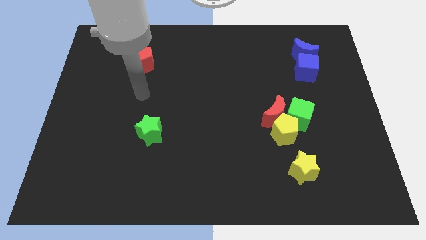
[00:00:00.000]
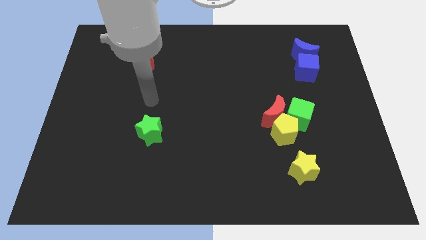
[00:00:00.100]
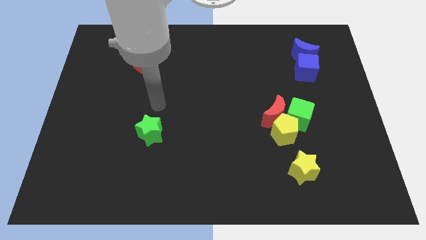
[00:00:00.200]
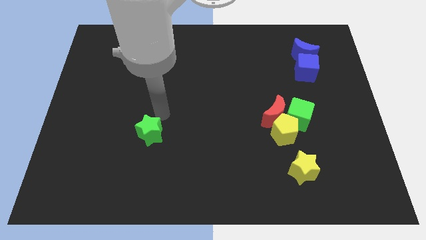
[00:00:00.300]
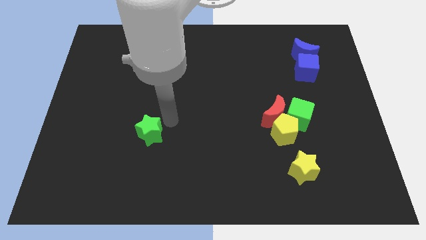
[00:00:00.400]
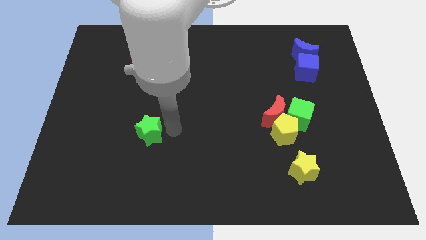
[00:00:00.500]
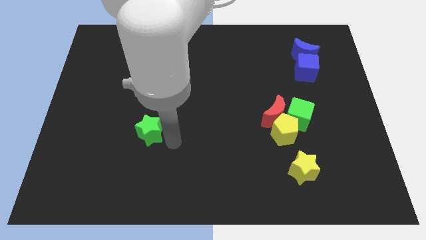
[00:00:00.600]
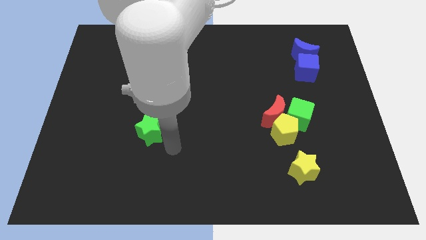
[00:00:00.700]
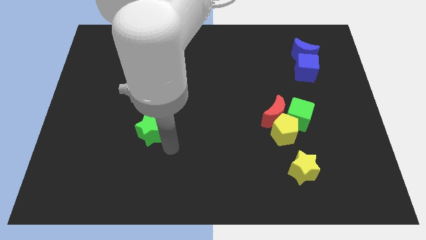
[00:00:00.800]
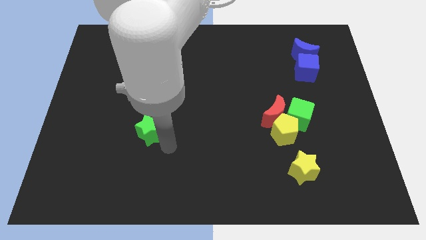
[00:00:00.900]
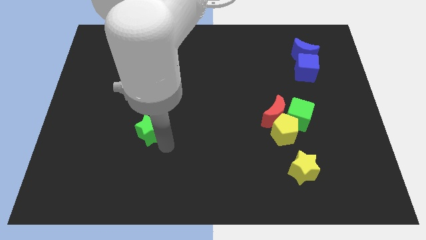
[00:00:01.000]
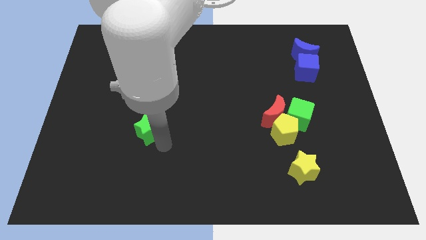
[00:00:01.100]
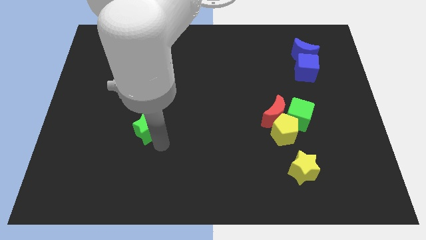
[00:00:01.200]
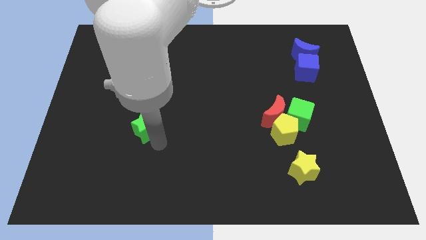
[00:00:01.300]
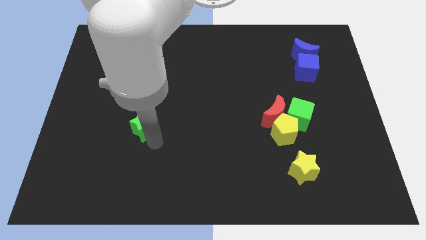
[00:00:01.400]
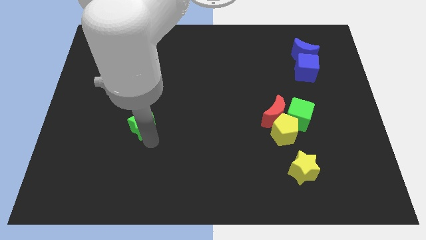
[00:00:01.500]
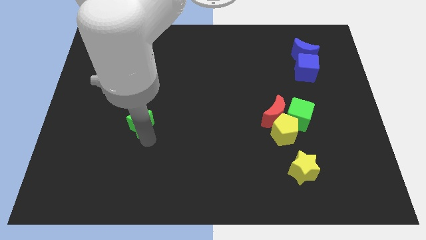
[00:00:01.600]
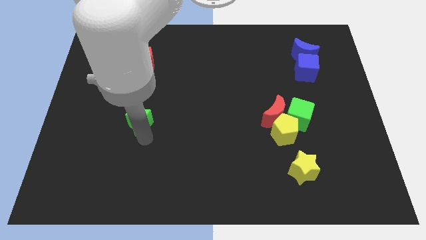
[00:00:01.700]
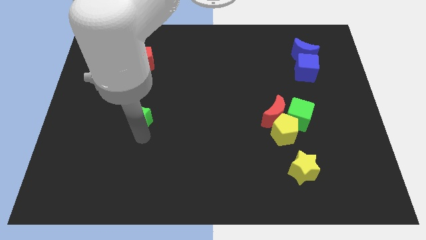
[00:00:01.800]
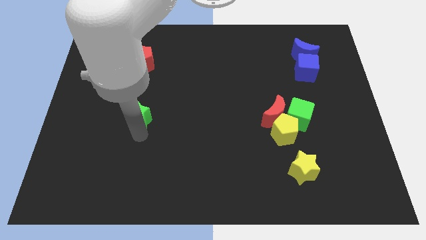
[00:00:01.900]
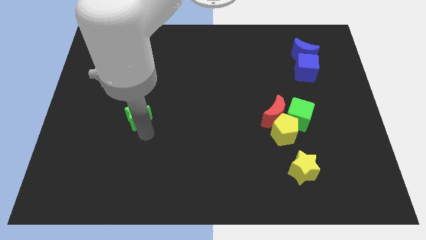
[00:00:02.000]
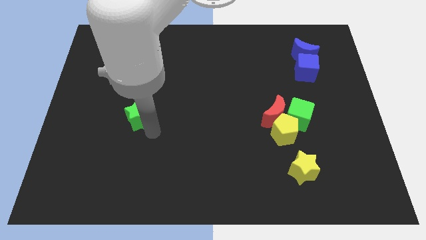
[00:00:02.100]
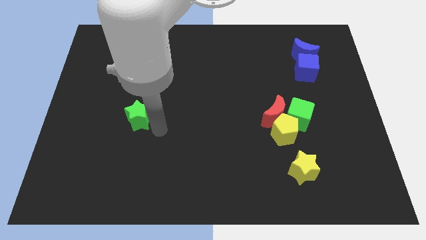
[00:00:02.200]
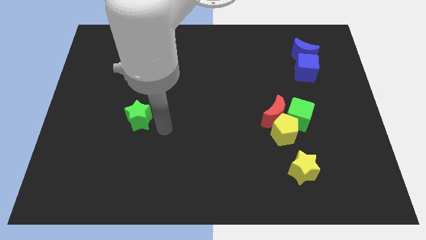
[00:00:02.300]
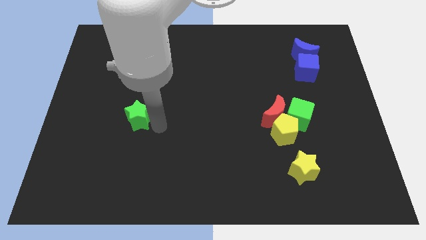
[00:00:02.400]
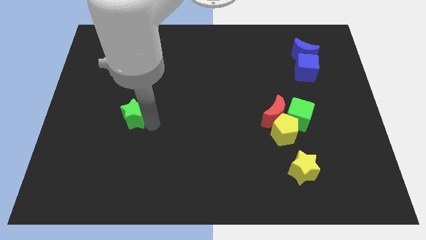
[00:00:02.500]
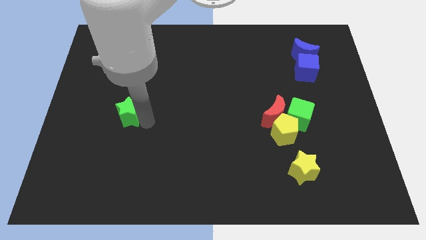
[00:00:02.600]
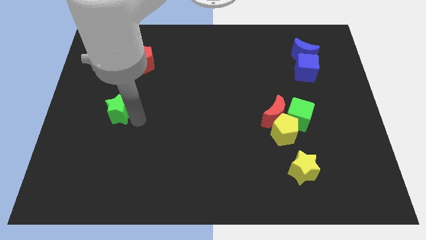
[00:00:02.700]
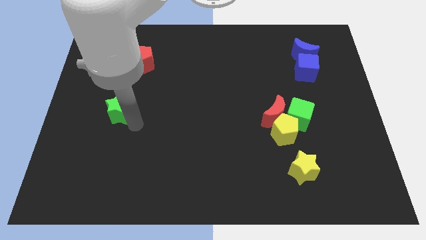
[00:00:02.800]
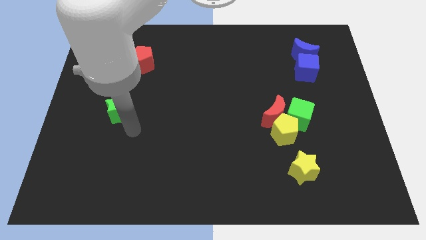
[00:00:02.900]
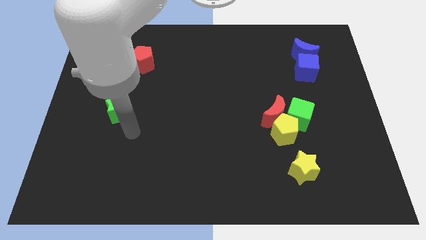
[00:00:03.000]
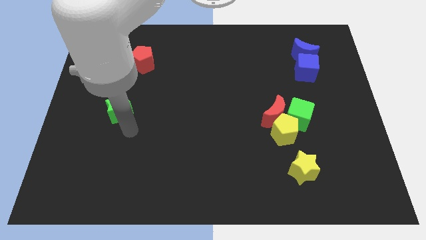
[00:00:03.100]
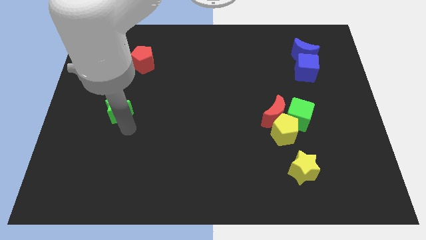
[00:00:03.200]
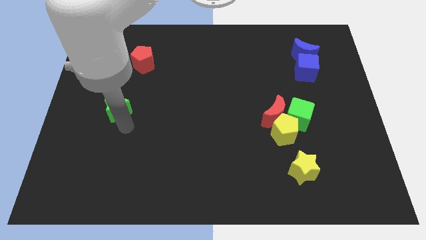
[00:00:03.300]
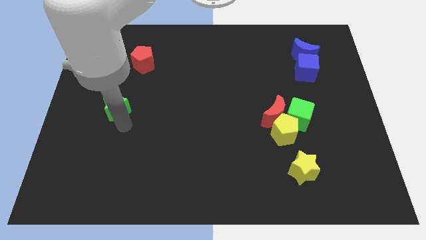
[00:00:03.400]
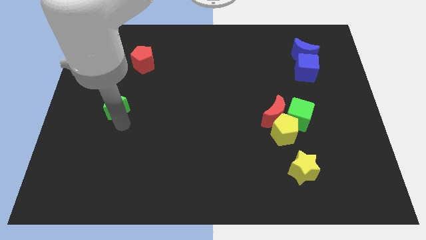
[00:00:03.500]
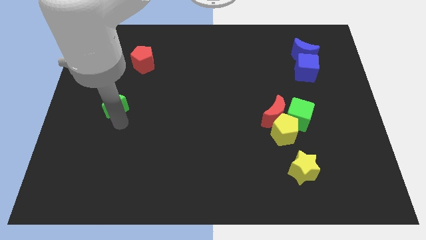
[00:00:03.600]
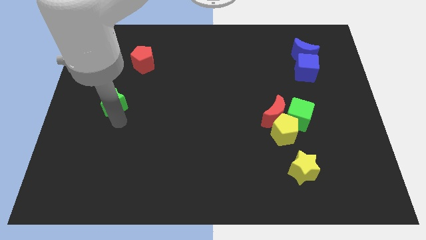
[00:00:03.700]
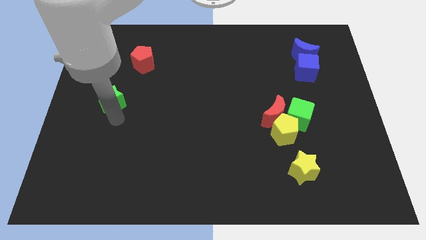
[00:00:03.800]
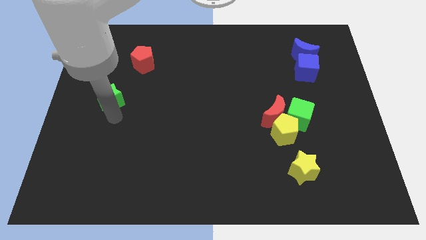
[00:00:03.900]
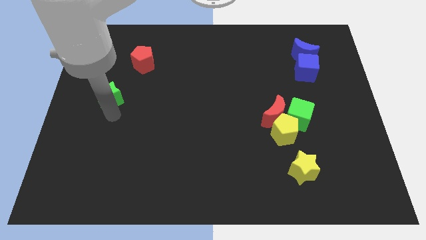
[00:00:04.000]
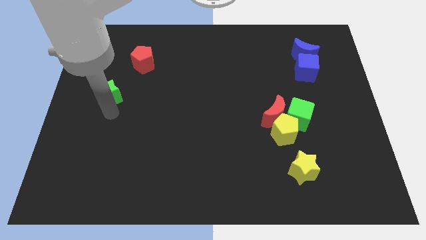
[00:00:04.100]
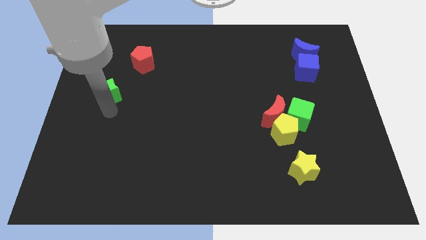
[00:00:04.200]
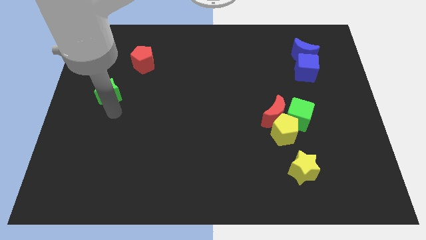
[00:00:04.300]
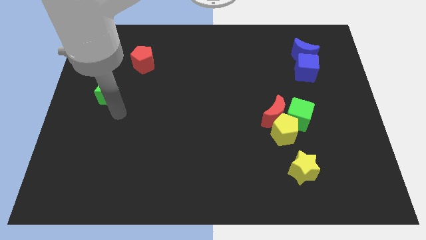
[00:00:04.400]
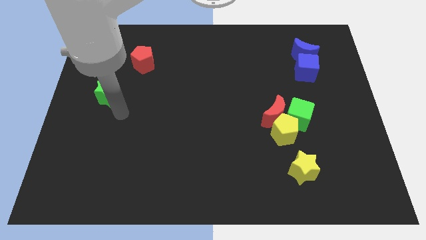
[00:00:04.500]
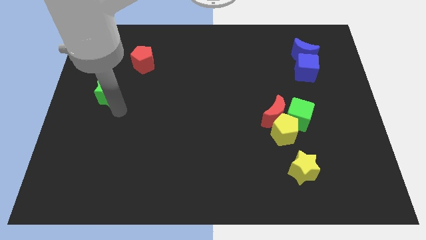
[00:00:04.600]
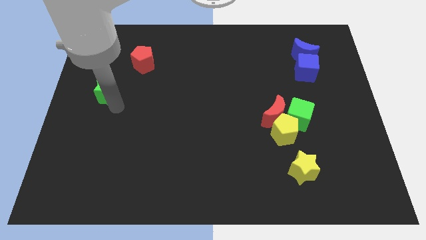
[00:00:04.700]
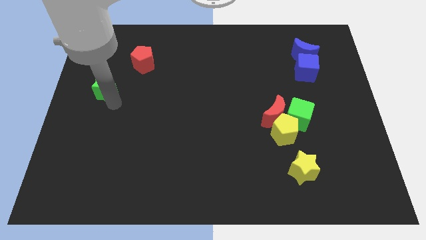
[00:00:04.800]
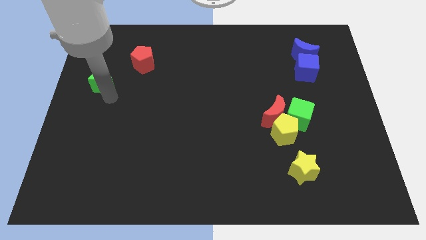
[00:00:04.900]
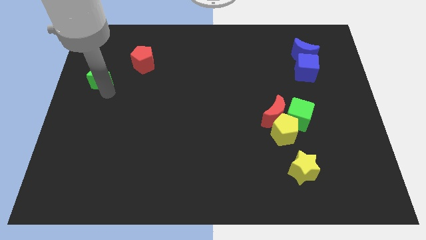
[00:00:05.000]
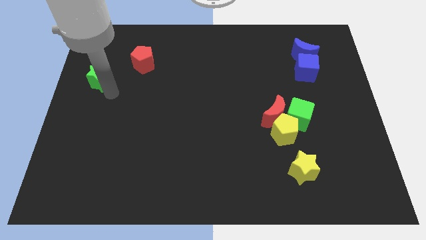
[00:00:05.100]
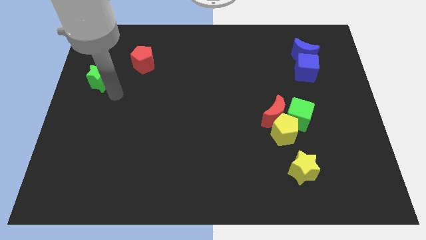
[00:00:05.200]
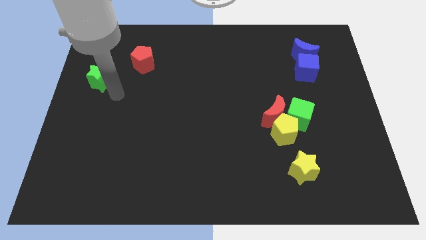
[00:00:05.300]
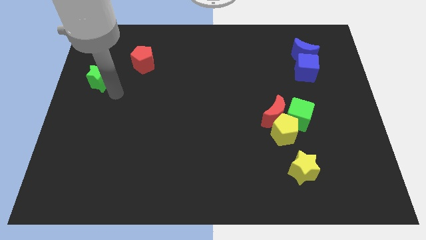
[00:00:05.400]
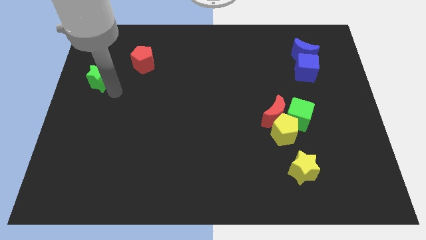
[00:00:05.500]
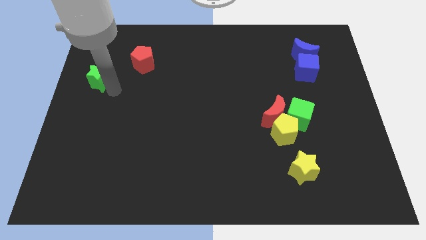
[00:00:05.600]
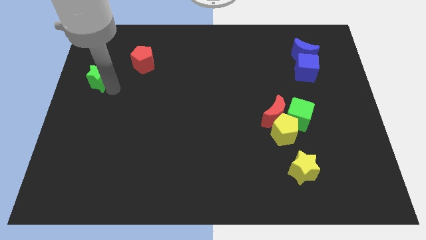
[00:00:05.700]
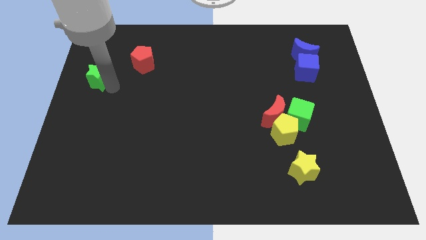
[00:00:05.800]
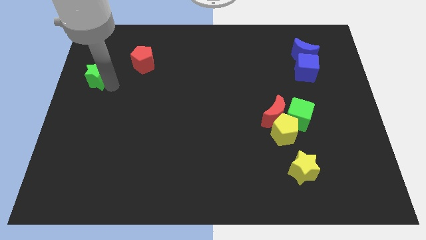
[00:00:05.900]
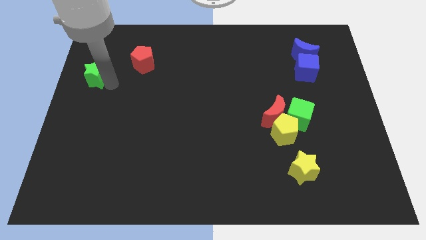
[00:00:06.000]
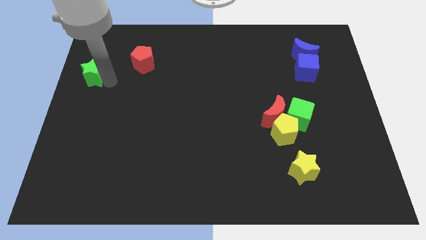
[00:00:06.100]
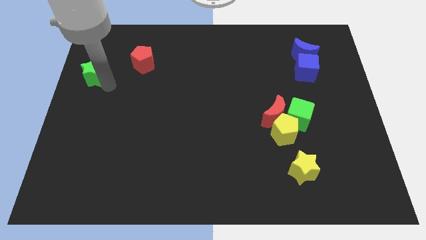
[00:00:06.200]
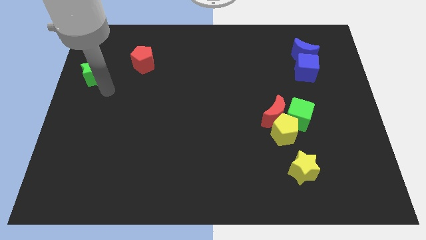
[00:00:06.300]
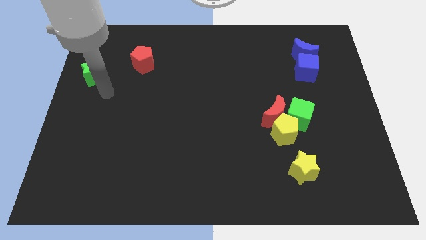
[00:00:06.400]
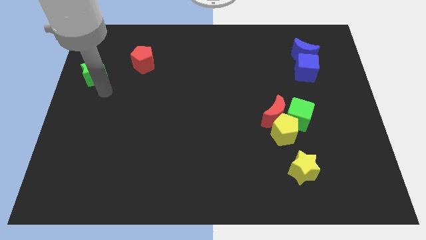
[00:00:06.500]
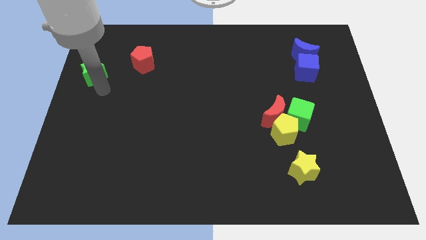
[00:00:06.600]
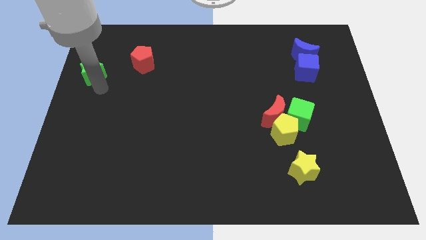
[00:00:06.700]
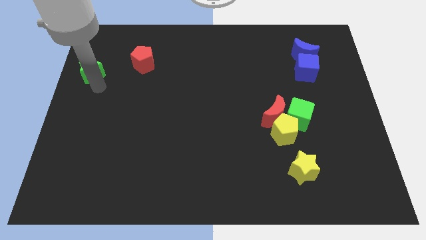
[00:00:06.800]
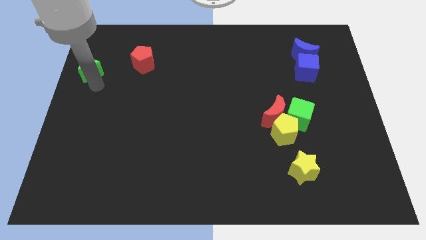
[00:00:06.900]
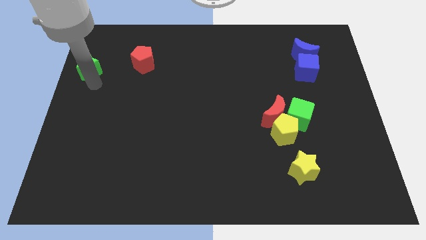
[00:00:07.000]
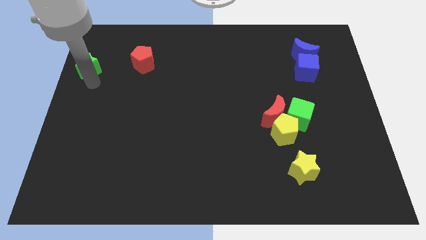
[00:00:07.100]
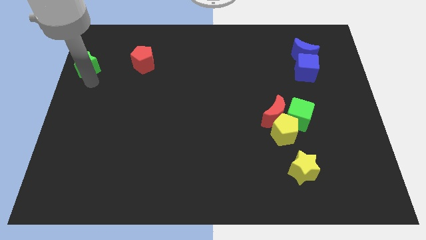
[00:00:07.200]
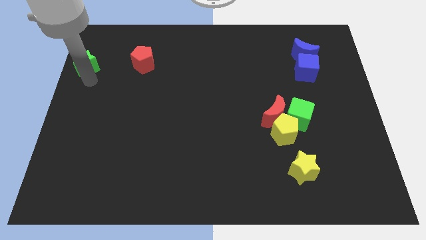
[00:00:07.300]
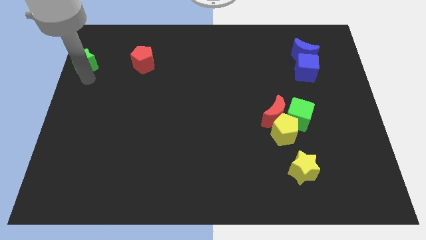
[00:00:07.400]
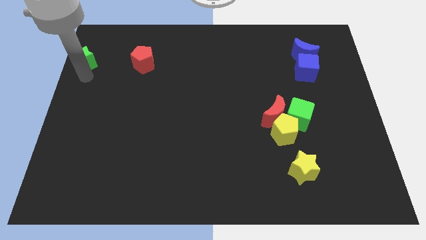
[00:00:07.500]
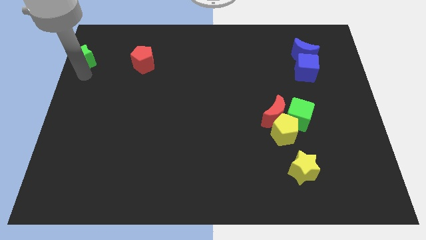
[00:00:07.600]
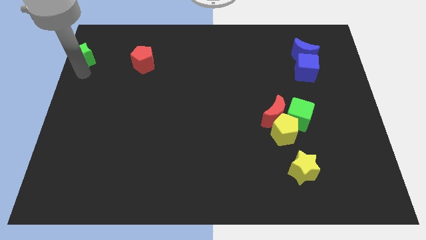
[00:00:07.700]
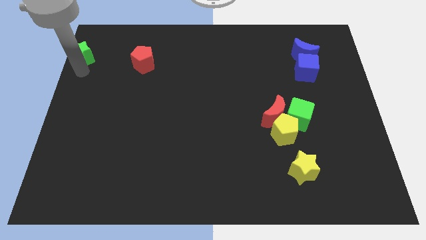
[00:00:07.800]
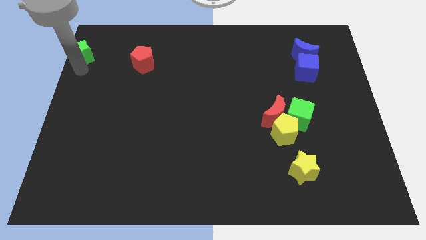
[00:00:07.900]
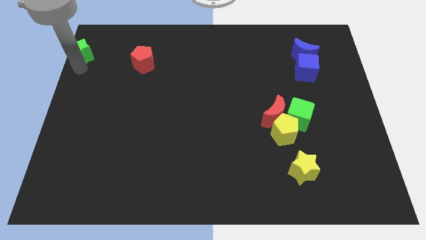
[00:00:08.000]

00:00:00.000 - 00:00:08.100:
push the green star to the top left of the board
